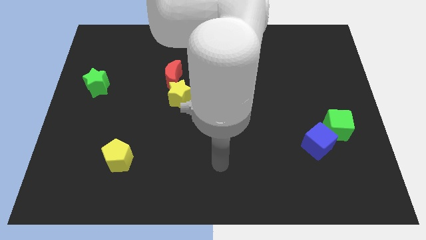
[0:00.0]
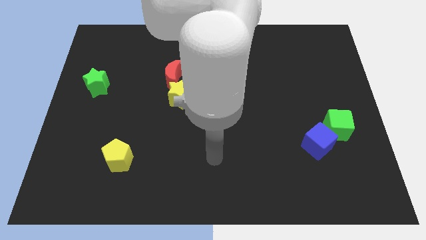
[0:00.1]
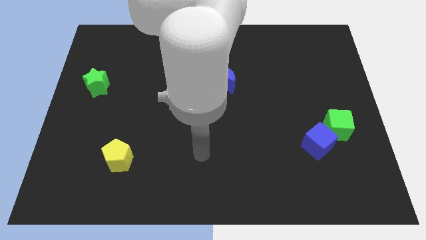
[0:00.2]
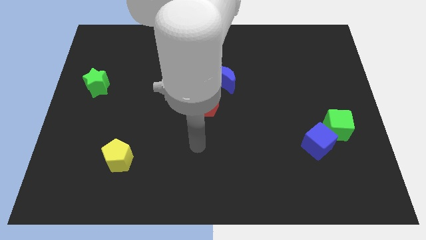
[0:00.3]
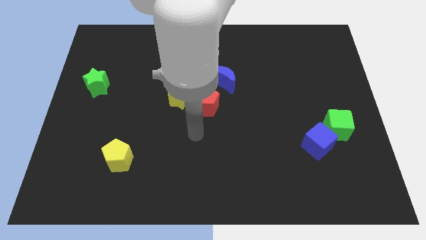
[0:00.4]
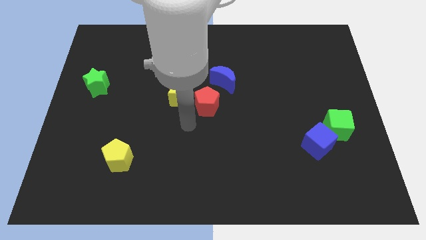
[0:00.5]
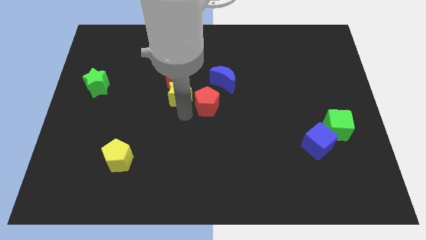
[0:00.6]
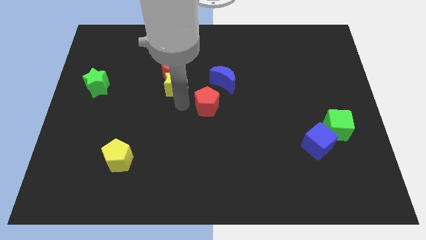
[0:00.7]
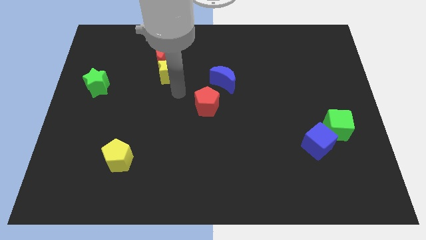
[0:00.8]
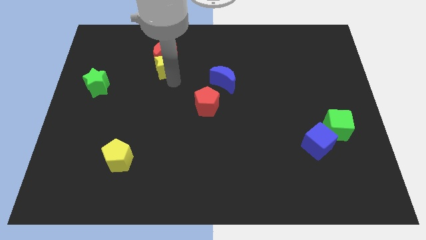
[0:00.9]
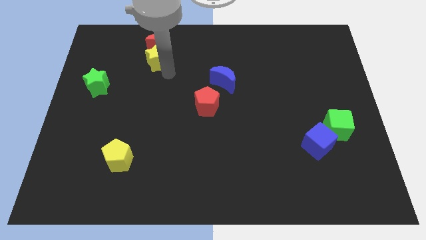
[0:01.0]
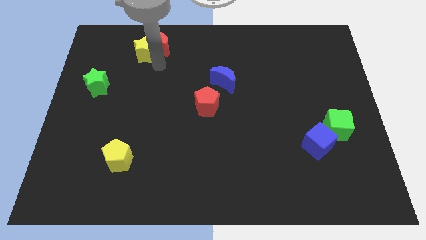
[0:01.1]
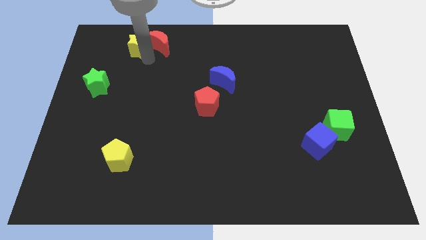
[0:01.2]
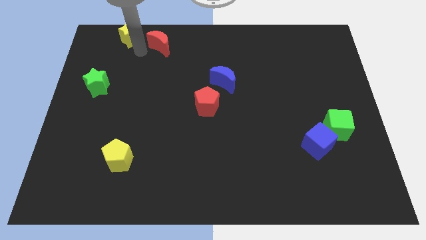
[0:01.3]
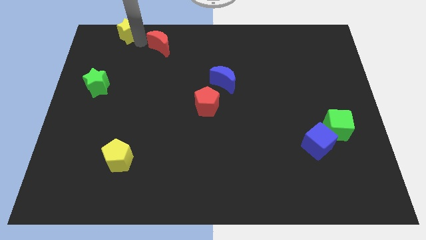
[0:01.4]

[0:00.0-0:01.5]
move the red moon away from the yellow star

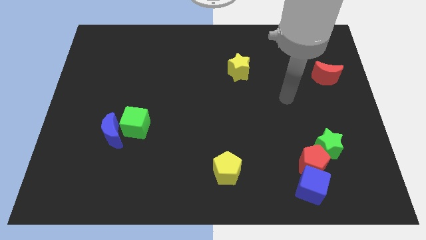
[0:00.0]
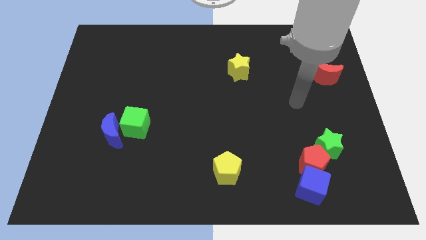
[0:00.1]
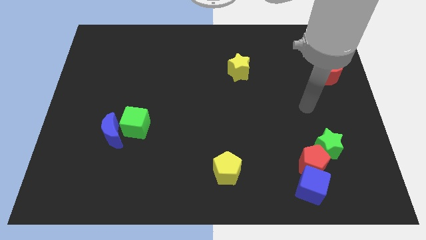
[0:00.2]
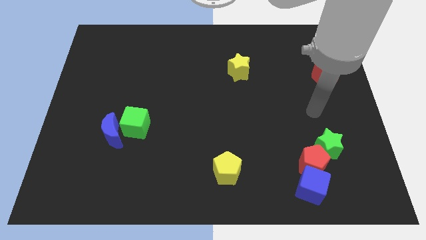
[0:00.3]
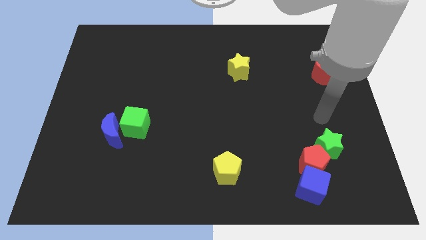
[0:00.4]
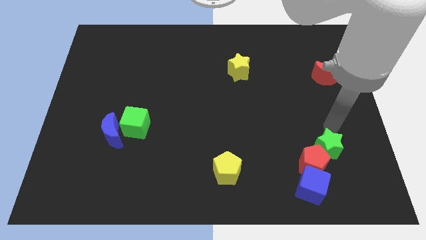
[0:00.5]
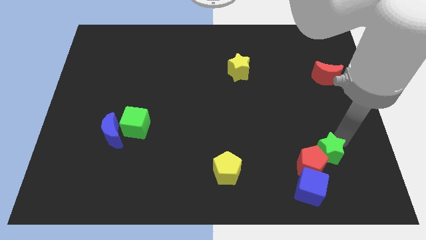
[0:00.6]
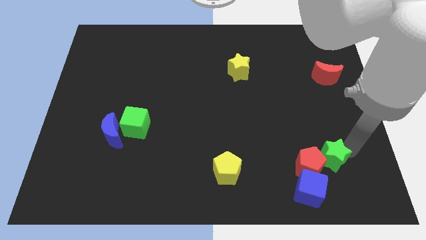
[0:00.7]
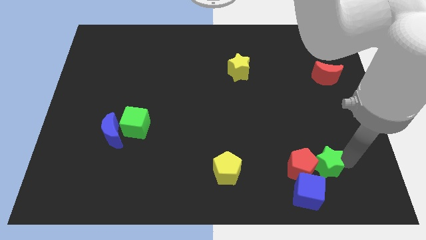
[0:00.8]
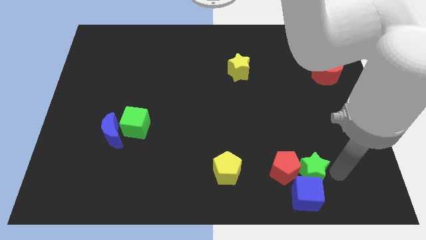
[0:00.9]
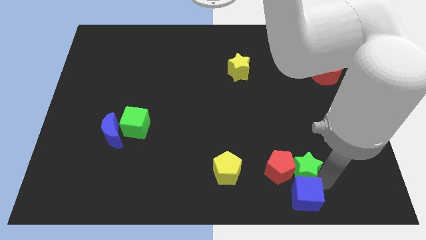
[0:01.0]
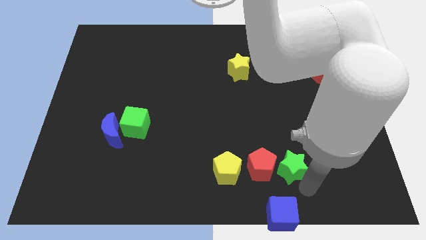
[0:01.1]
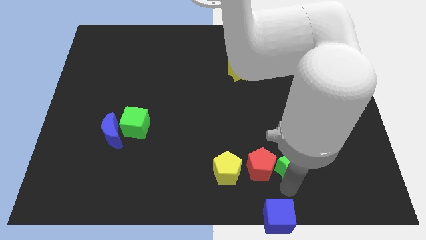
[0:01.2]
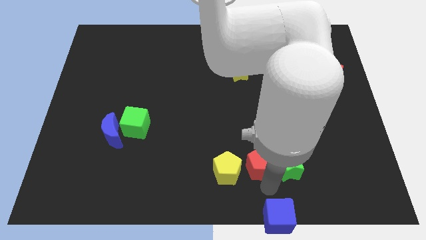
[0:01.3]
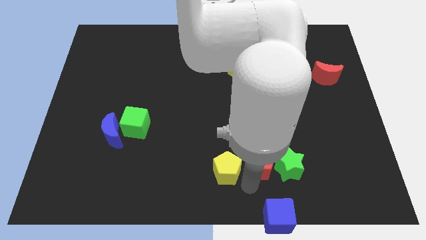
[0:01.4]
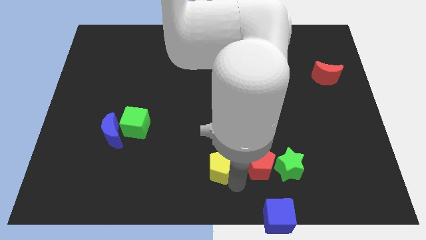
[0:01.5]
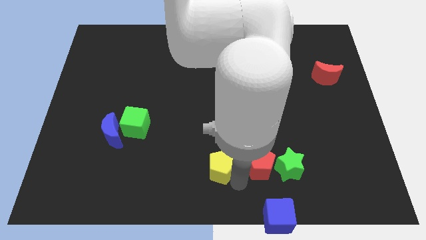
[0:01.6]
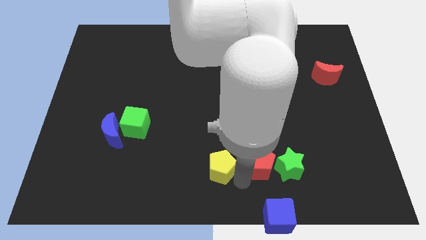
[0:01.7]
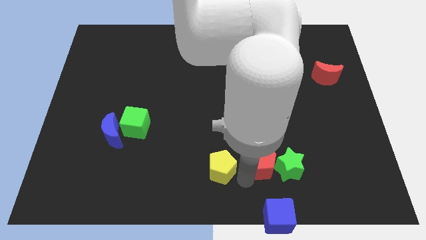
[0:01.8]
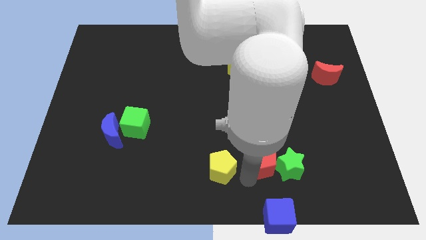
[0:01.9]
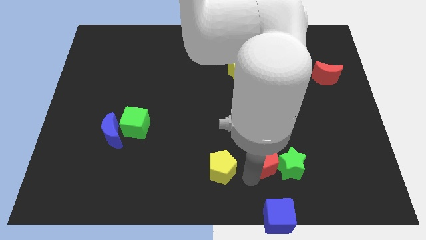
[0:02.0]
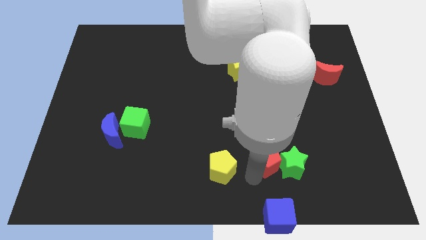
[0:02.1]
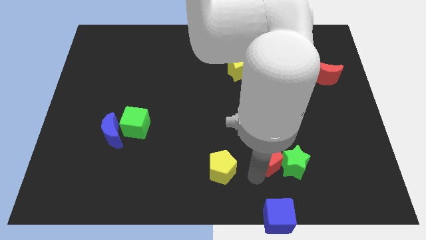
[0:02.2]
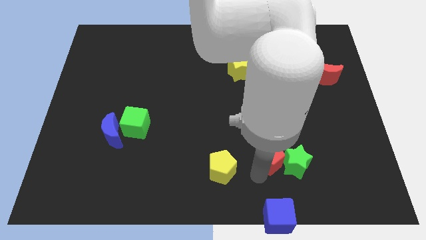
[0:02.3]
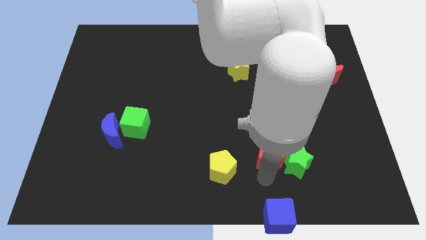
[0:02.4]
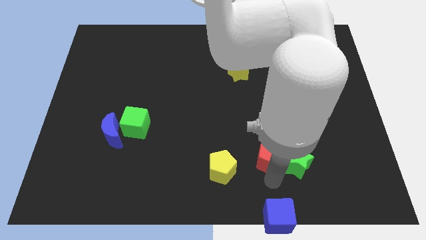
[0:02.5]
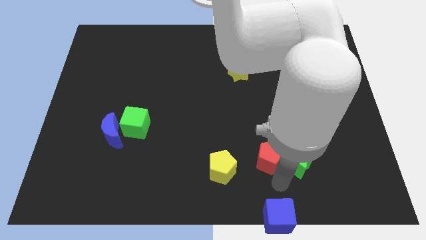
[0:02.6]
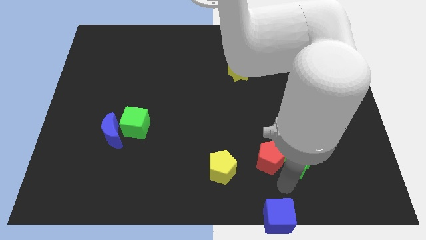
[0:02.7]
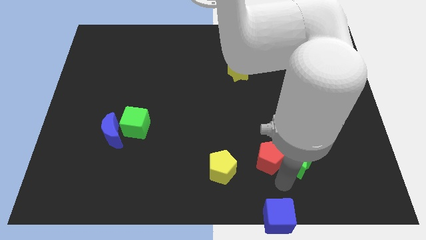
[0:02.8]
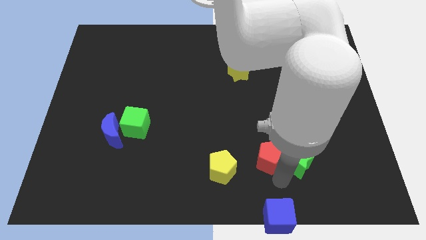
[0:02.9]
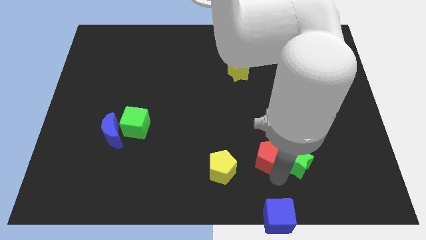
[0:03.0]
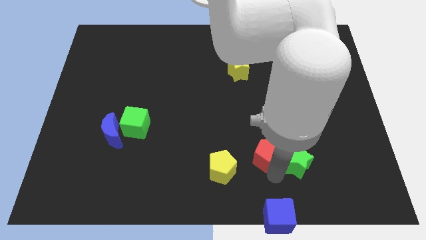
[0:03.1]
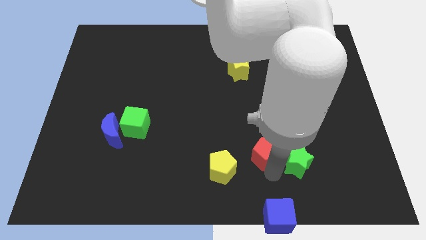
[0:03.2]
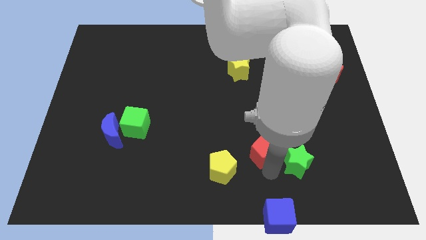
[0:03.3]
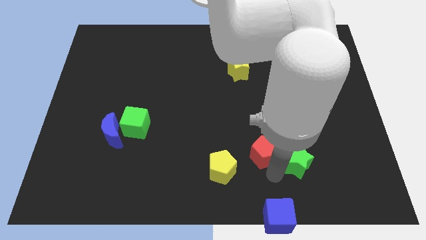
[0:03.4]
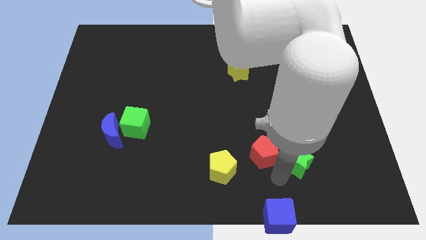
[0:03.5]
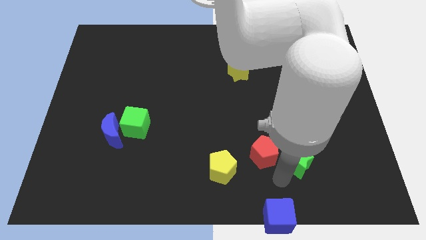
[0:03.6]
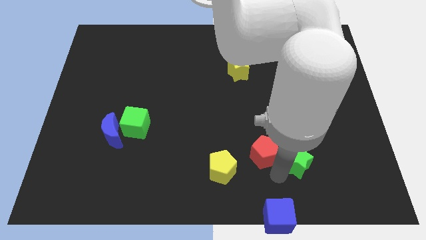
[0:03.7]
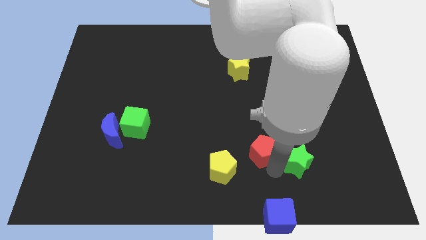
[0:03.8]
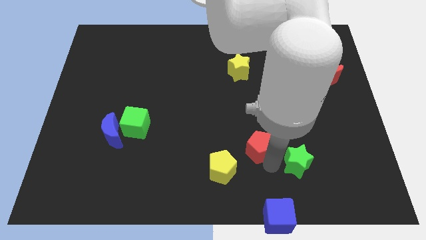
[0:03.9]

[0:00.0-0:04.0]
separate the red pentagon from the blue cube and green star

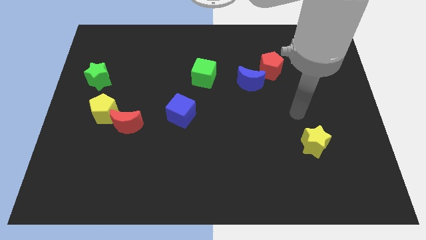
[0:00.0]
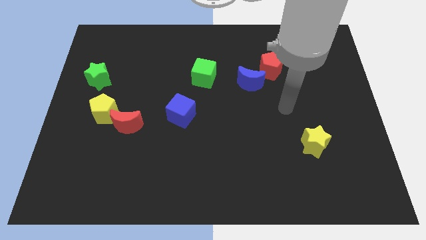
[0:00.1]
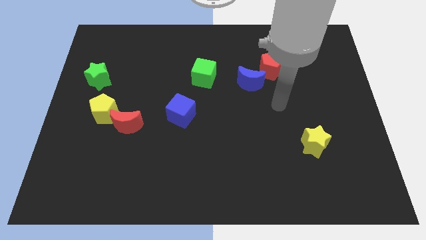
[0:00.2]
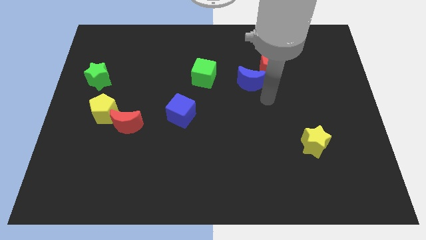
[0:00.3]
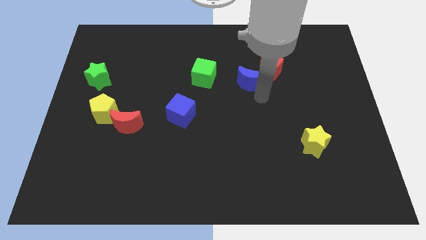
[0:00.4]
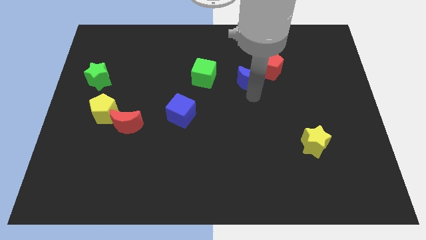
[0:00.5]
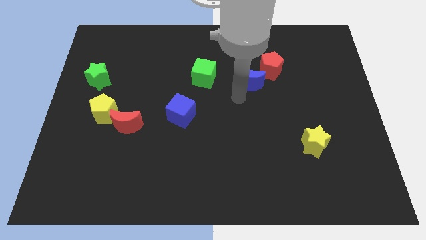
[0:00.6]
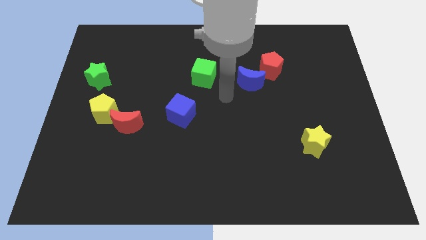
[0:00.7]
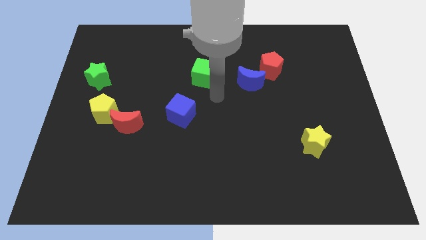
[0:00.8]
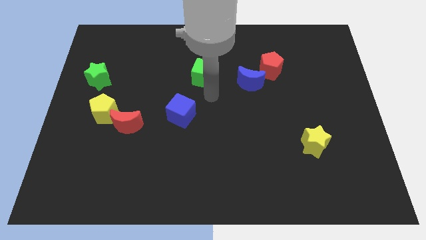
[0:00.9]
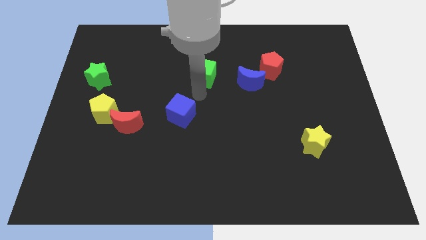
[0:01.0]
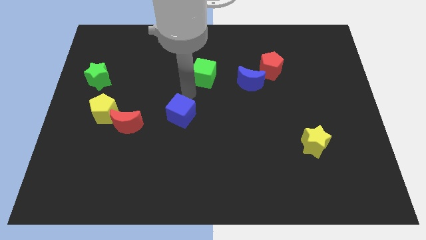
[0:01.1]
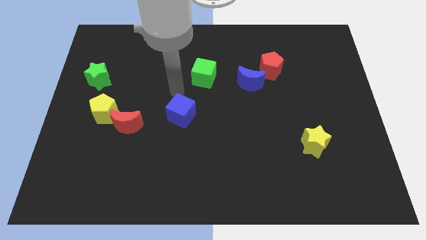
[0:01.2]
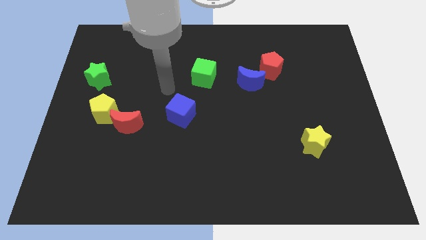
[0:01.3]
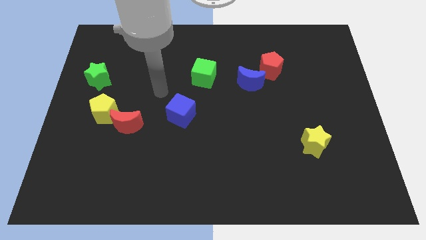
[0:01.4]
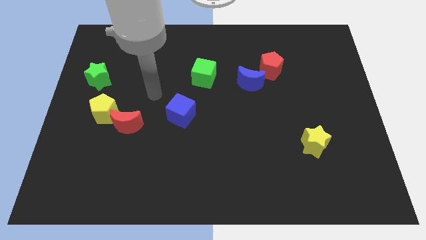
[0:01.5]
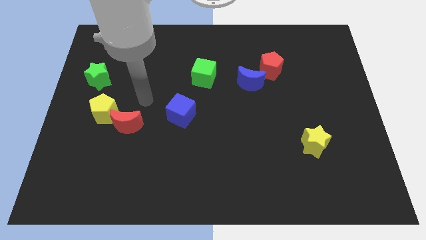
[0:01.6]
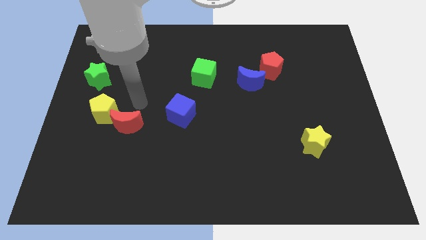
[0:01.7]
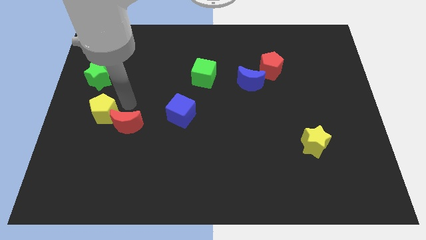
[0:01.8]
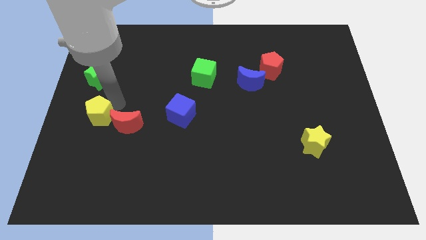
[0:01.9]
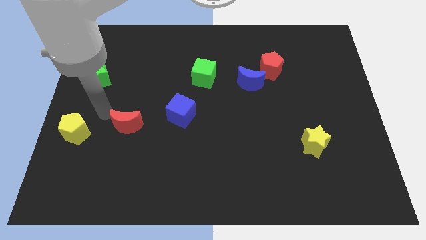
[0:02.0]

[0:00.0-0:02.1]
pull the red moon apart from the yellow pentagon

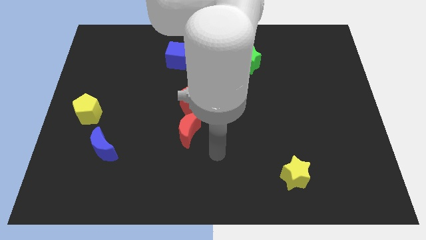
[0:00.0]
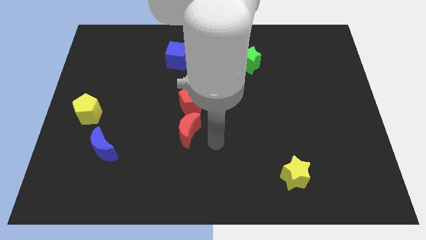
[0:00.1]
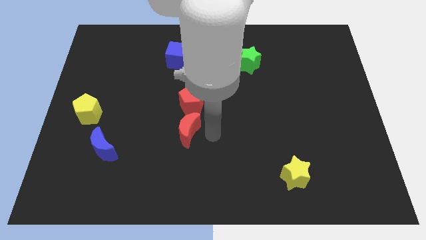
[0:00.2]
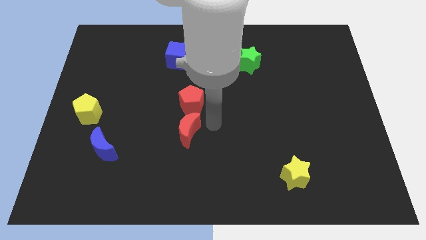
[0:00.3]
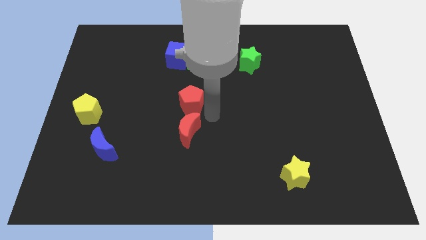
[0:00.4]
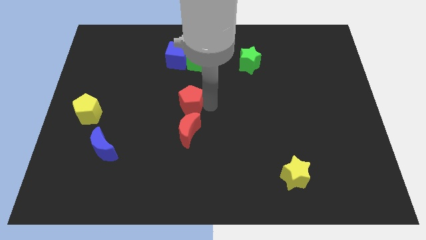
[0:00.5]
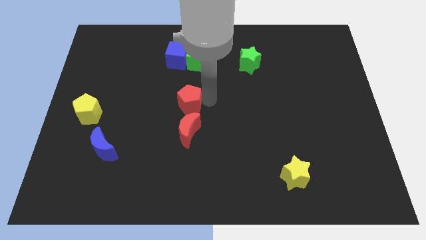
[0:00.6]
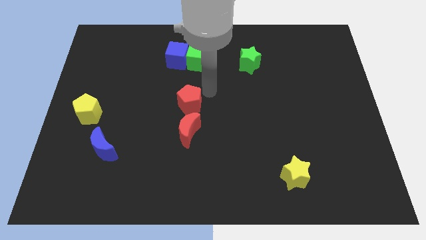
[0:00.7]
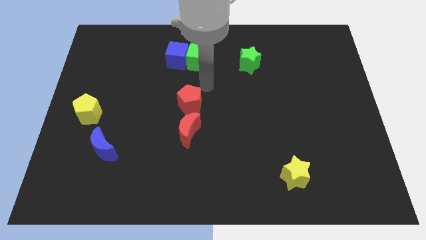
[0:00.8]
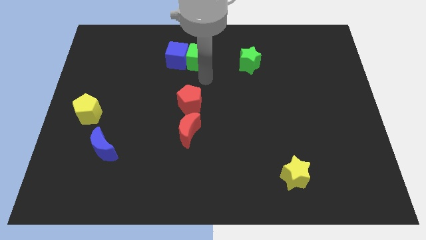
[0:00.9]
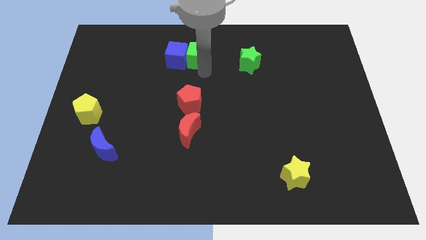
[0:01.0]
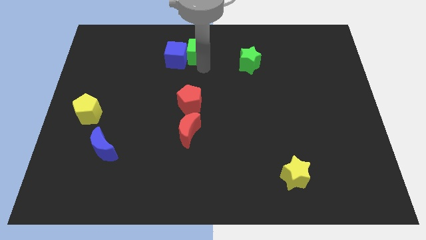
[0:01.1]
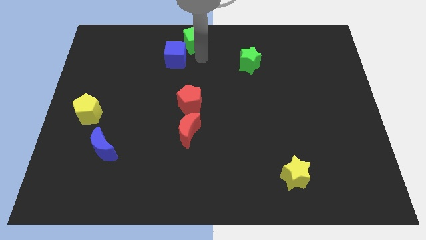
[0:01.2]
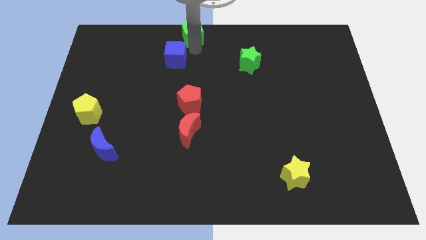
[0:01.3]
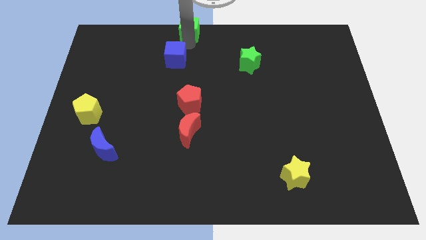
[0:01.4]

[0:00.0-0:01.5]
separate the blue cube from the green cube
